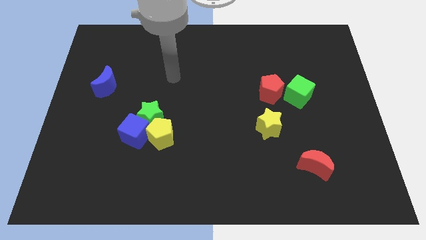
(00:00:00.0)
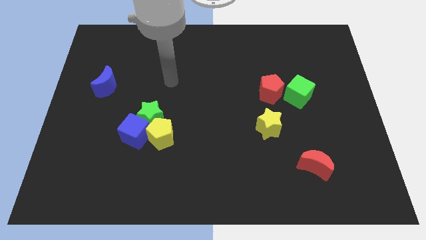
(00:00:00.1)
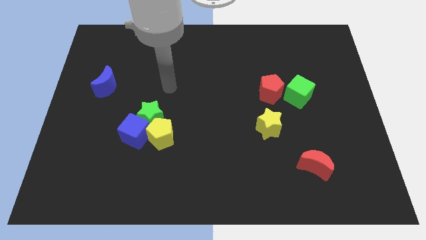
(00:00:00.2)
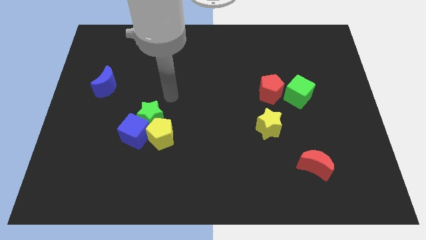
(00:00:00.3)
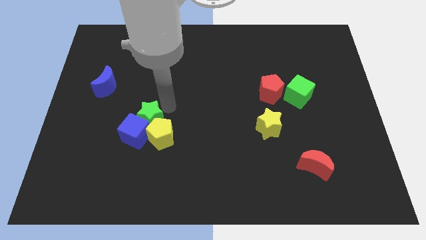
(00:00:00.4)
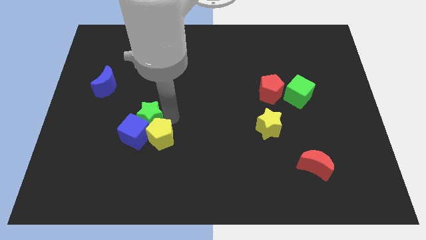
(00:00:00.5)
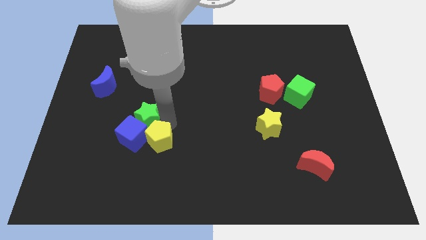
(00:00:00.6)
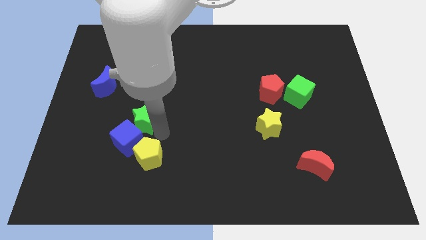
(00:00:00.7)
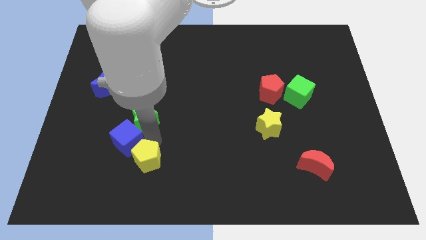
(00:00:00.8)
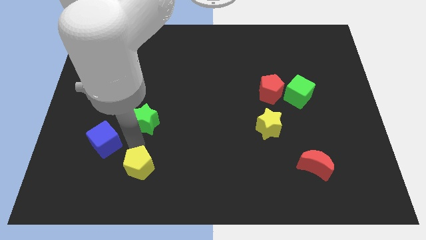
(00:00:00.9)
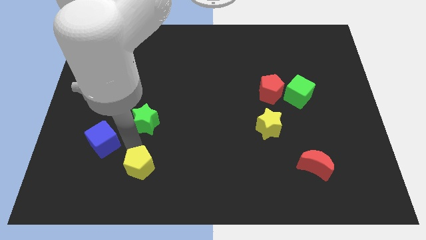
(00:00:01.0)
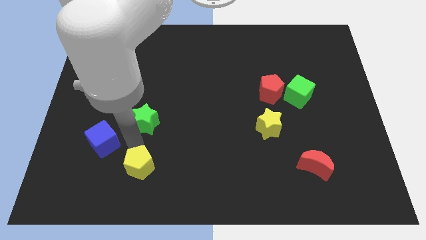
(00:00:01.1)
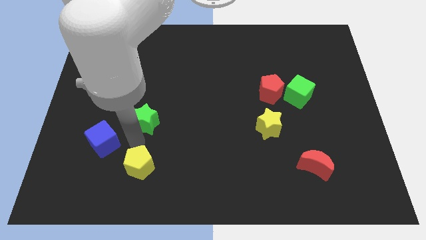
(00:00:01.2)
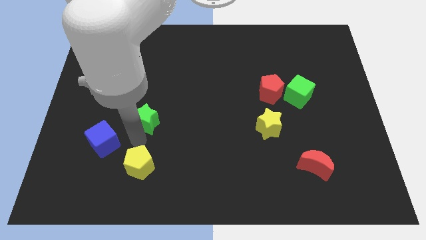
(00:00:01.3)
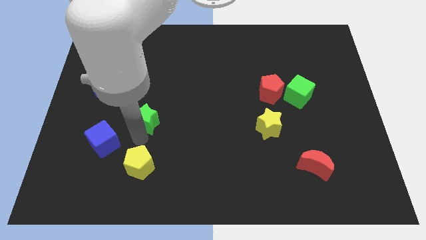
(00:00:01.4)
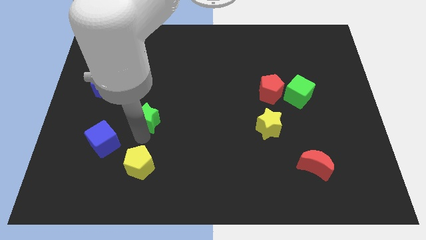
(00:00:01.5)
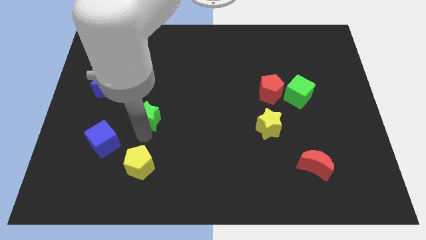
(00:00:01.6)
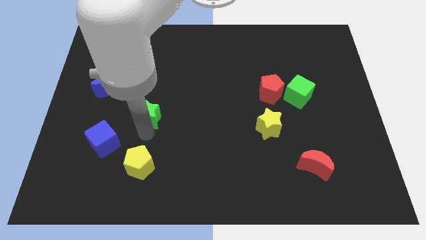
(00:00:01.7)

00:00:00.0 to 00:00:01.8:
pull the green star apart from the blue cube and yellow pentagon

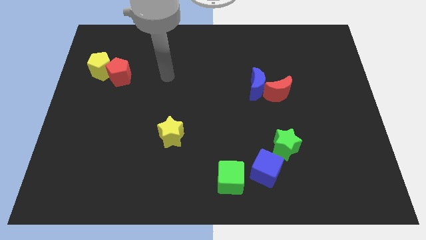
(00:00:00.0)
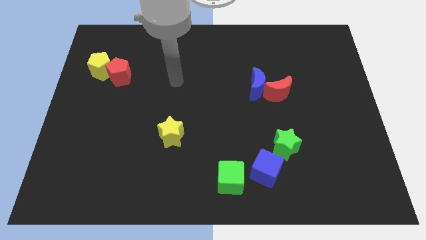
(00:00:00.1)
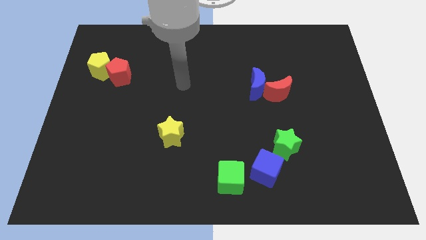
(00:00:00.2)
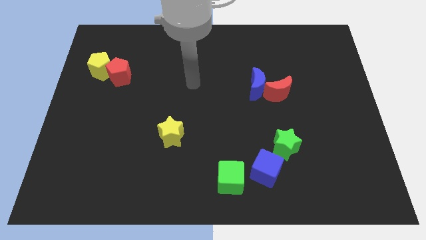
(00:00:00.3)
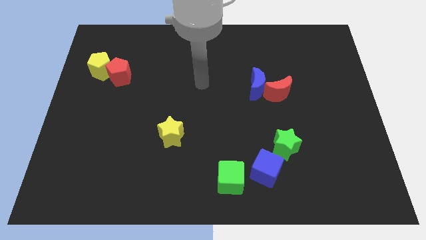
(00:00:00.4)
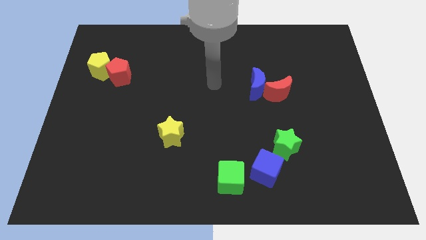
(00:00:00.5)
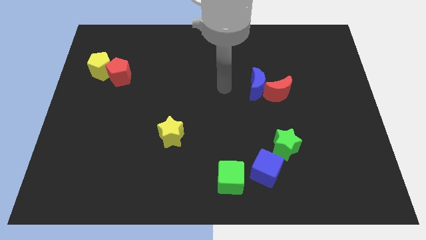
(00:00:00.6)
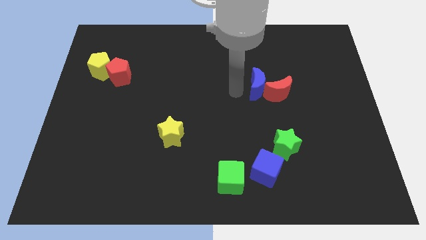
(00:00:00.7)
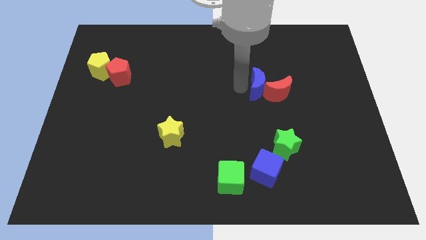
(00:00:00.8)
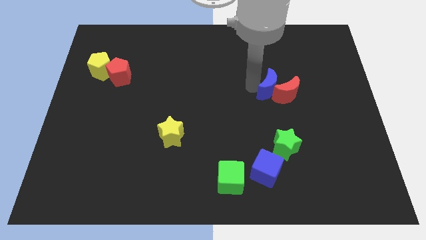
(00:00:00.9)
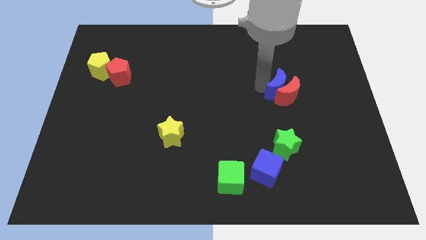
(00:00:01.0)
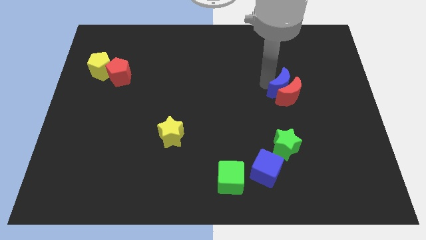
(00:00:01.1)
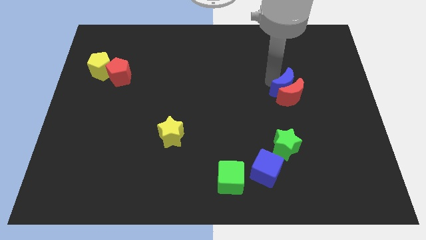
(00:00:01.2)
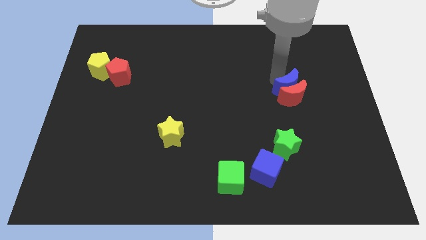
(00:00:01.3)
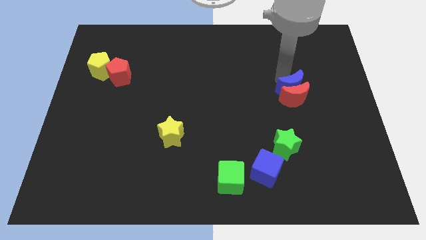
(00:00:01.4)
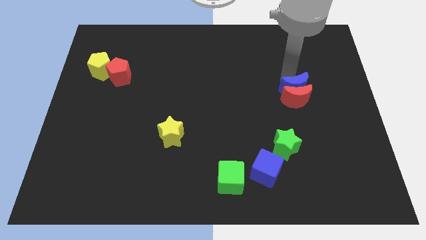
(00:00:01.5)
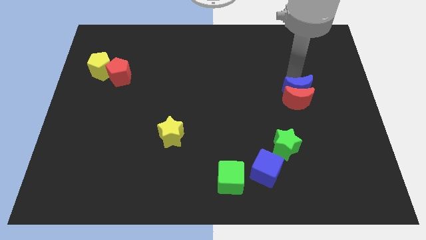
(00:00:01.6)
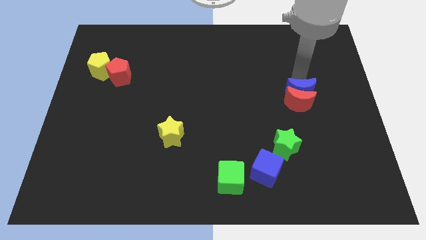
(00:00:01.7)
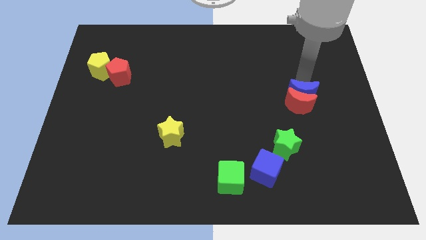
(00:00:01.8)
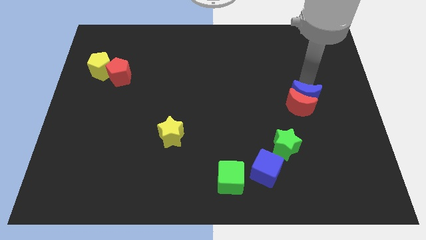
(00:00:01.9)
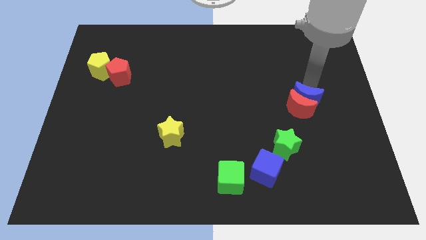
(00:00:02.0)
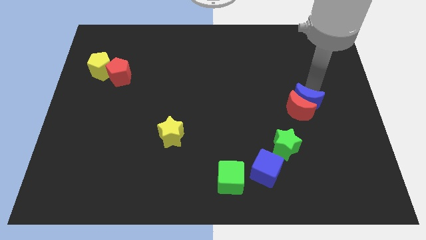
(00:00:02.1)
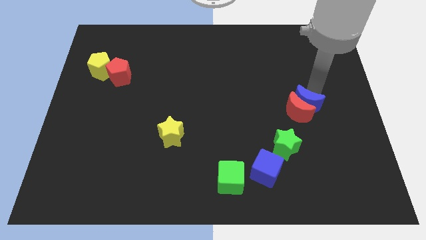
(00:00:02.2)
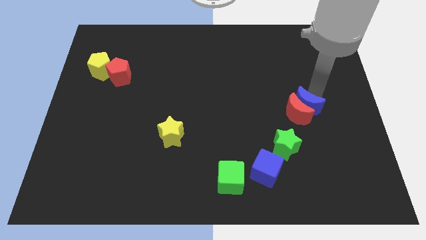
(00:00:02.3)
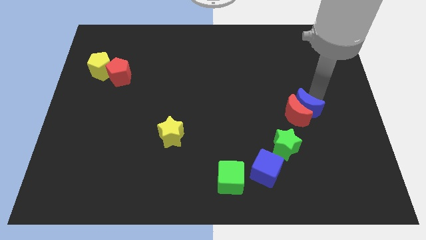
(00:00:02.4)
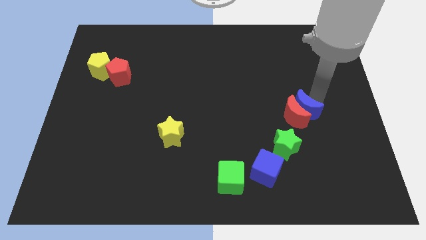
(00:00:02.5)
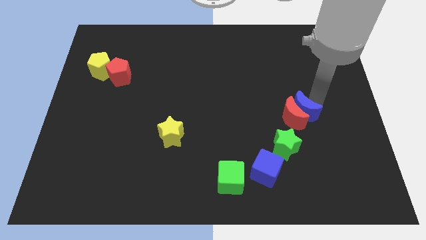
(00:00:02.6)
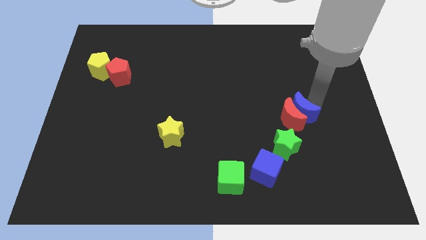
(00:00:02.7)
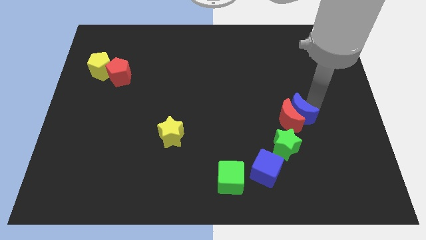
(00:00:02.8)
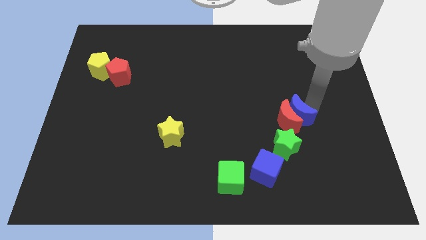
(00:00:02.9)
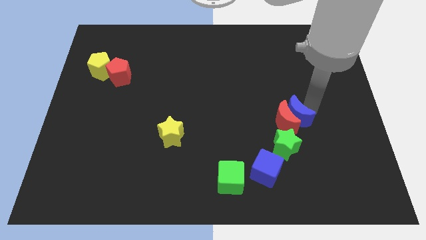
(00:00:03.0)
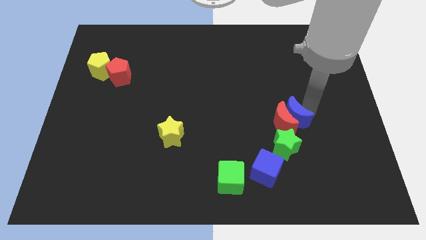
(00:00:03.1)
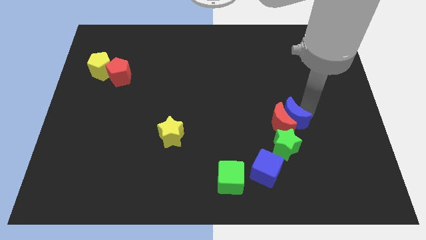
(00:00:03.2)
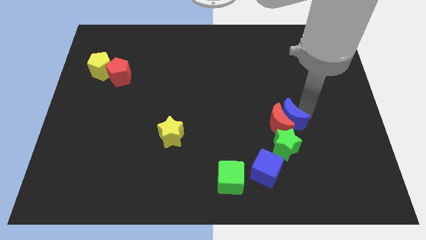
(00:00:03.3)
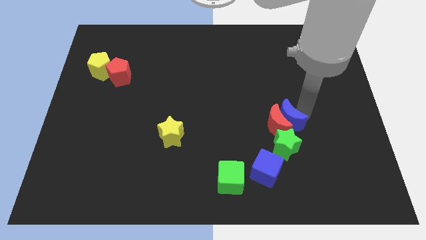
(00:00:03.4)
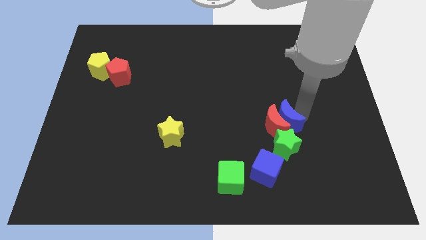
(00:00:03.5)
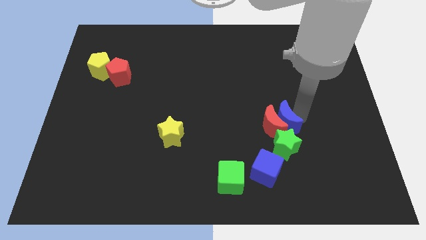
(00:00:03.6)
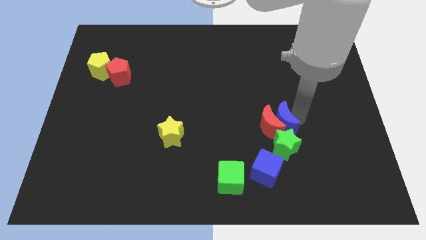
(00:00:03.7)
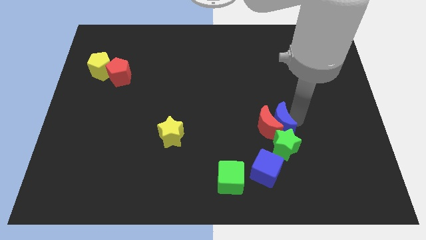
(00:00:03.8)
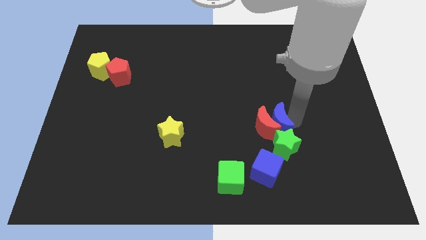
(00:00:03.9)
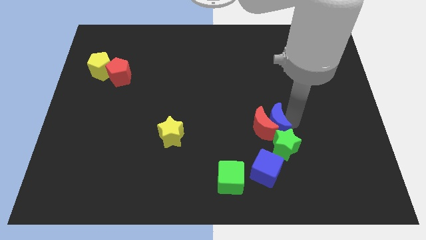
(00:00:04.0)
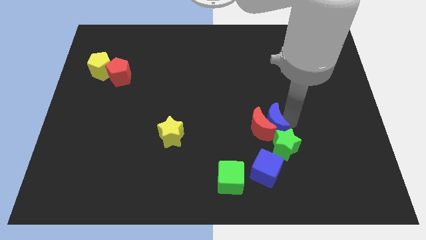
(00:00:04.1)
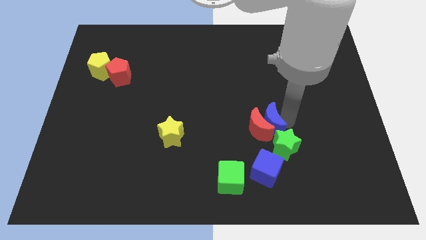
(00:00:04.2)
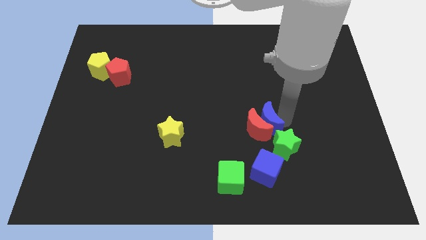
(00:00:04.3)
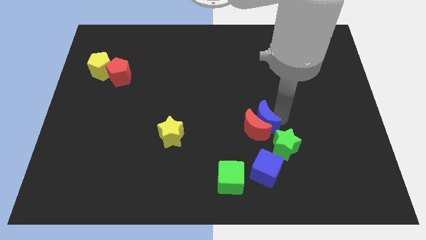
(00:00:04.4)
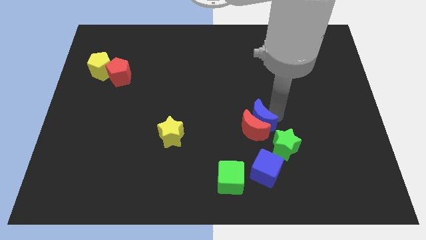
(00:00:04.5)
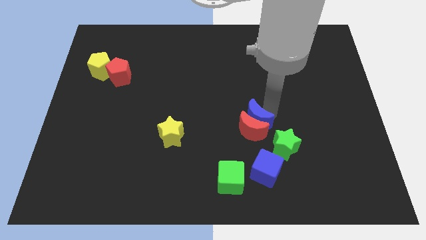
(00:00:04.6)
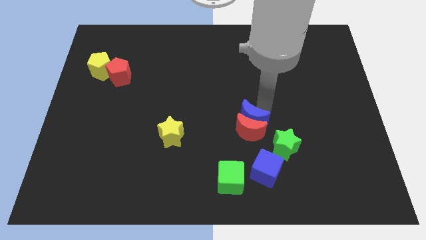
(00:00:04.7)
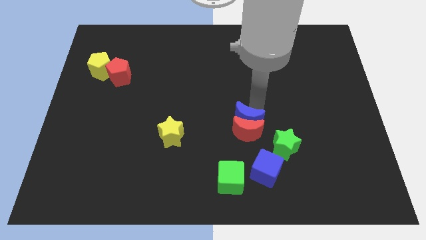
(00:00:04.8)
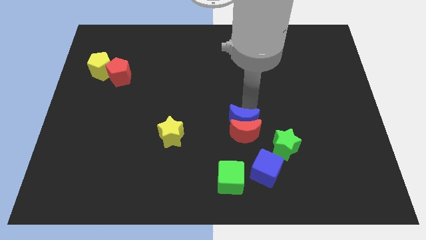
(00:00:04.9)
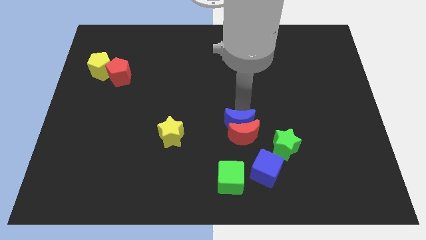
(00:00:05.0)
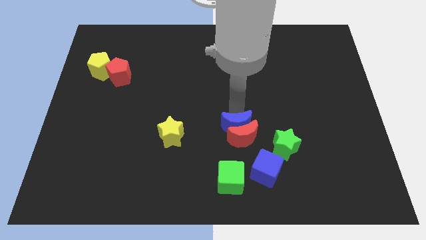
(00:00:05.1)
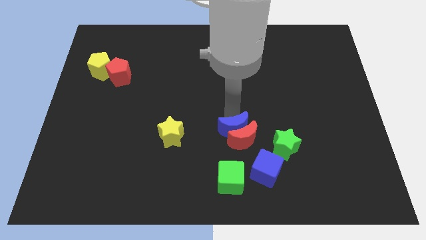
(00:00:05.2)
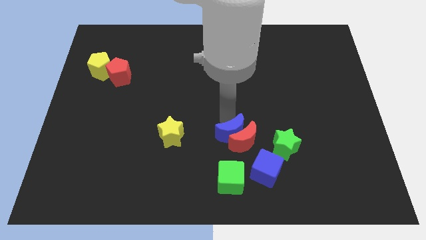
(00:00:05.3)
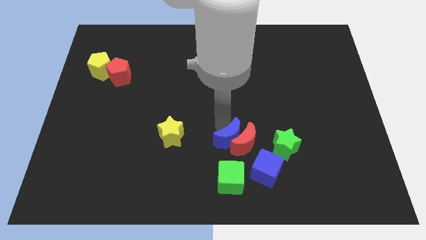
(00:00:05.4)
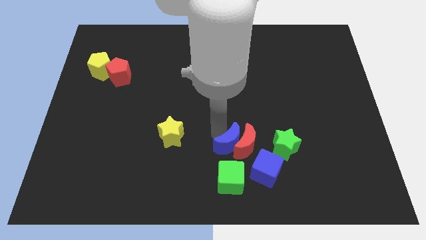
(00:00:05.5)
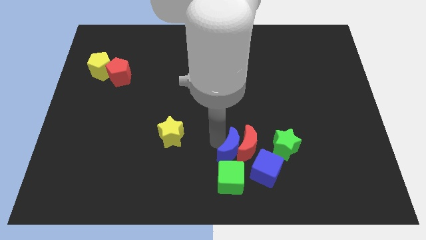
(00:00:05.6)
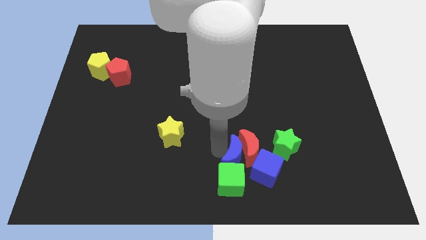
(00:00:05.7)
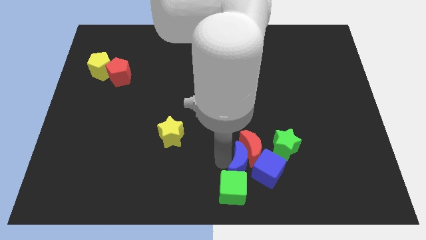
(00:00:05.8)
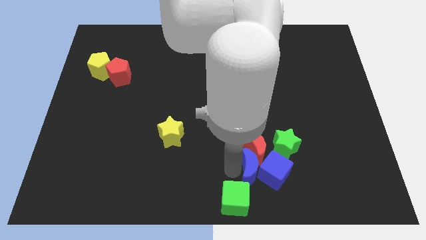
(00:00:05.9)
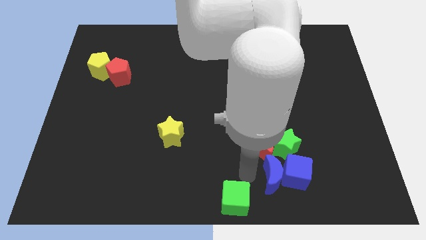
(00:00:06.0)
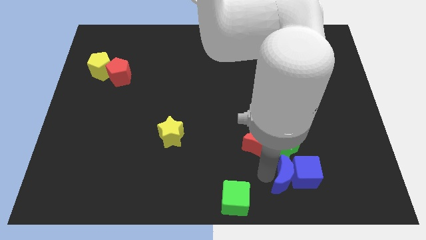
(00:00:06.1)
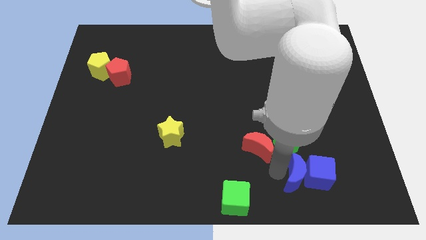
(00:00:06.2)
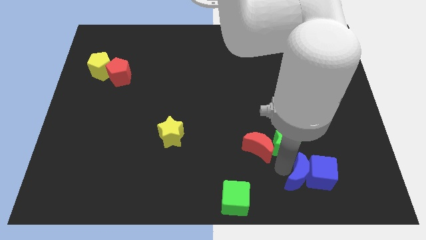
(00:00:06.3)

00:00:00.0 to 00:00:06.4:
separate the red moon from the blue moon

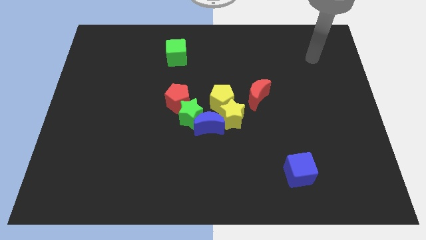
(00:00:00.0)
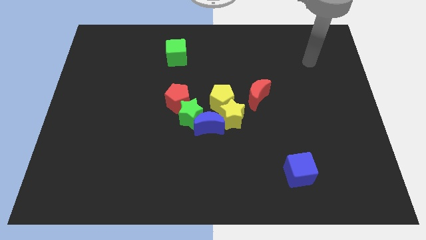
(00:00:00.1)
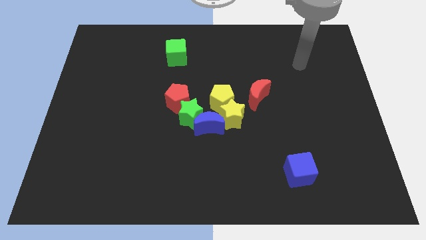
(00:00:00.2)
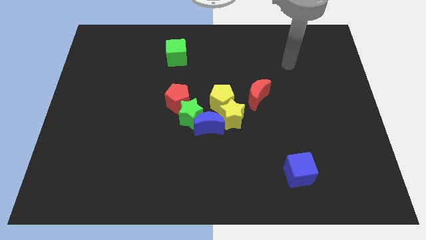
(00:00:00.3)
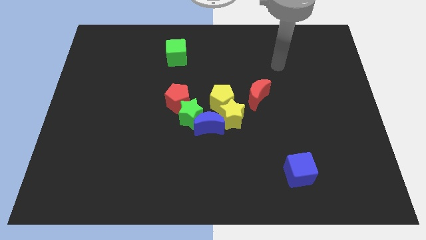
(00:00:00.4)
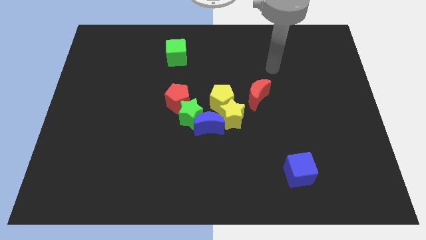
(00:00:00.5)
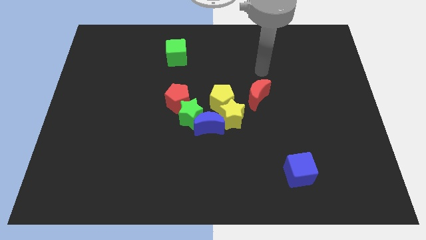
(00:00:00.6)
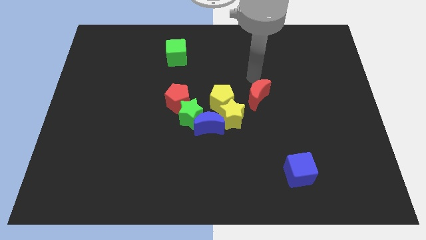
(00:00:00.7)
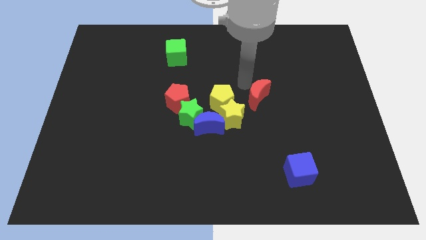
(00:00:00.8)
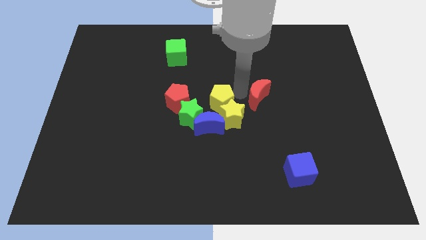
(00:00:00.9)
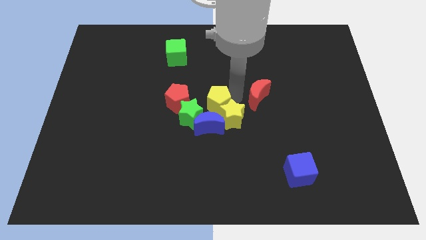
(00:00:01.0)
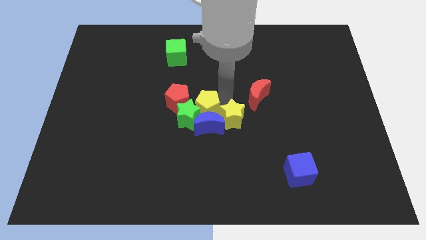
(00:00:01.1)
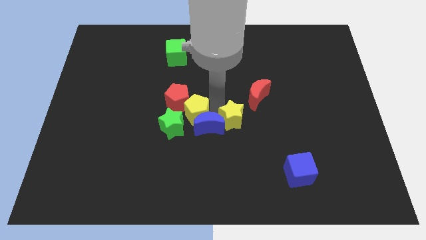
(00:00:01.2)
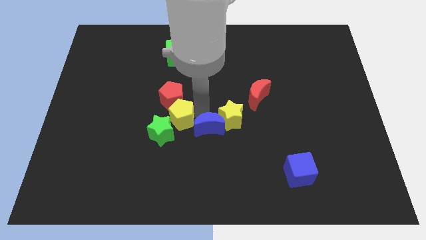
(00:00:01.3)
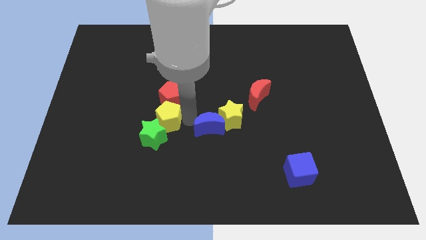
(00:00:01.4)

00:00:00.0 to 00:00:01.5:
pull the green star apart from the group
